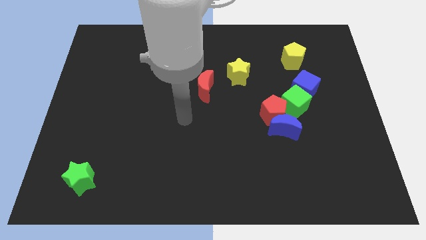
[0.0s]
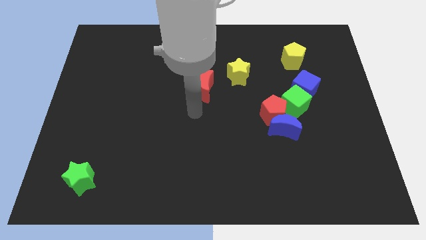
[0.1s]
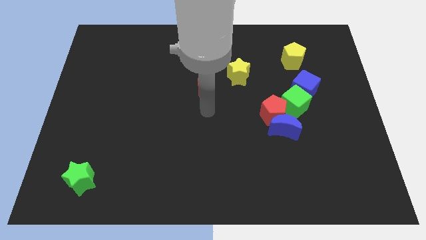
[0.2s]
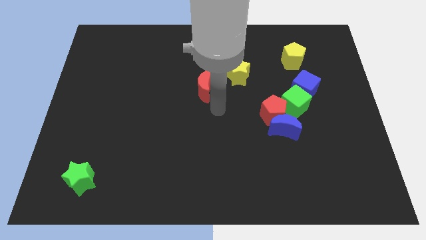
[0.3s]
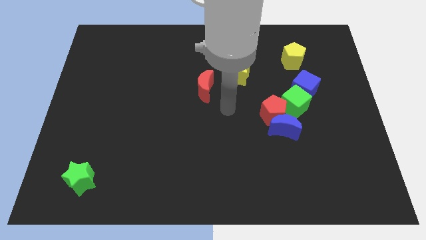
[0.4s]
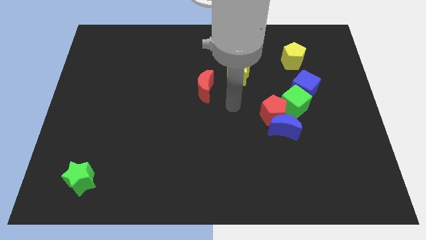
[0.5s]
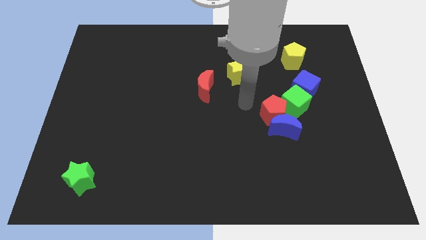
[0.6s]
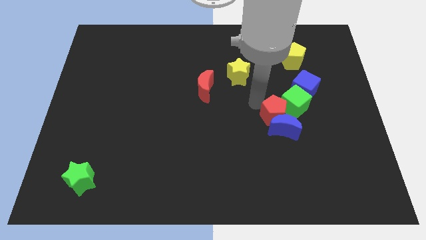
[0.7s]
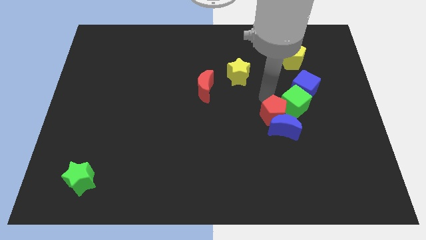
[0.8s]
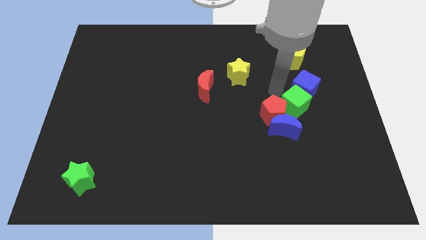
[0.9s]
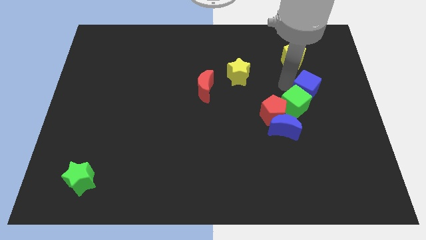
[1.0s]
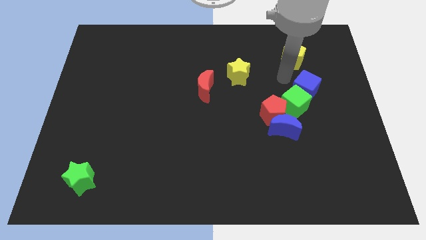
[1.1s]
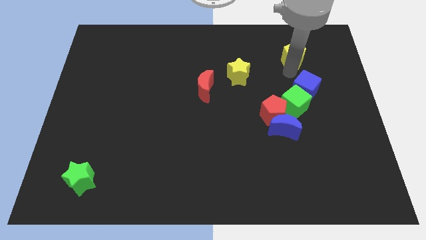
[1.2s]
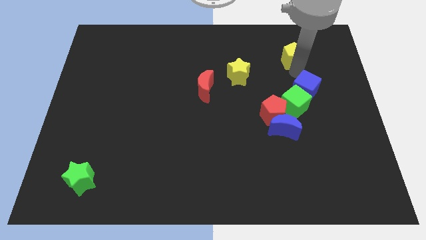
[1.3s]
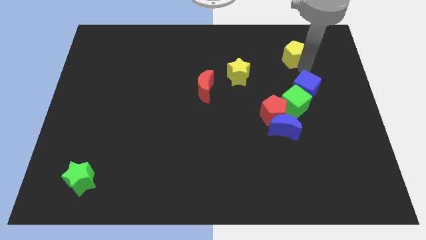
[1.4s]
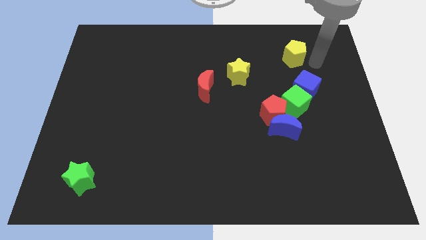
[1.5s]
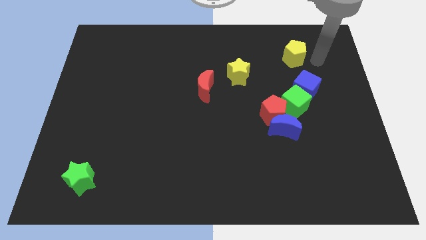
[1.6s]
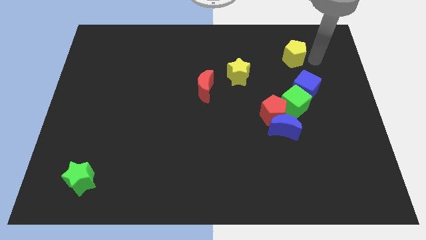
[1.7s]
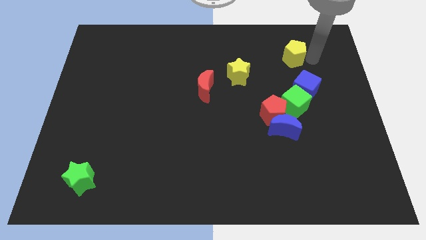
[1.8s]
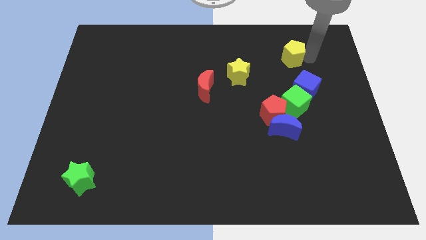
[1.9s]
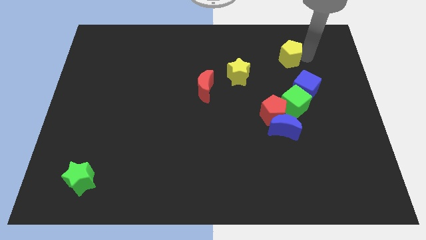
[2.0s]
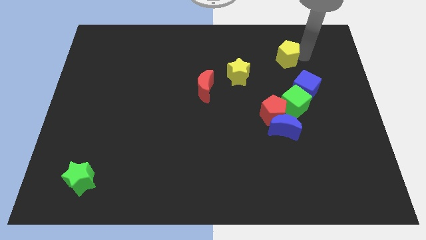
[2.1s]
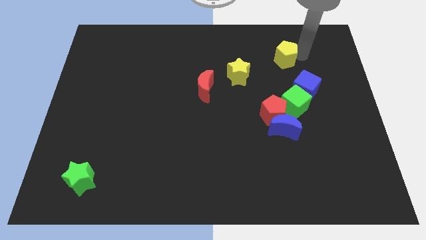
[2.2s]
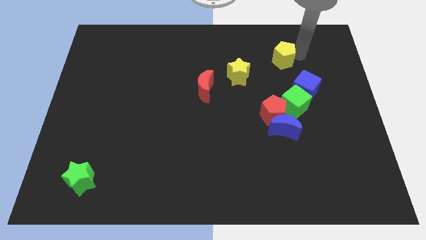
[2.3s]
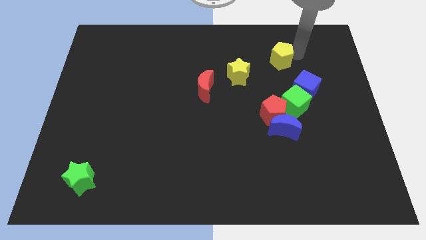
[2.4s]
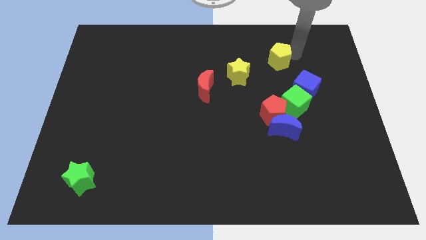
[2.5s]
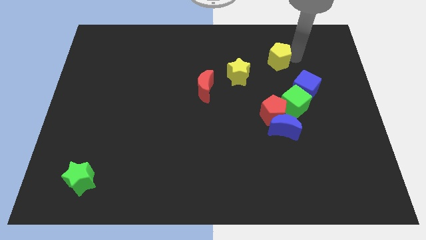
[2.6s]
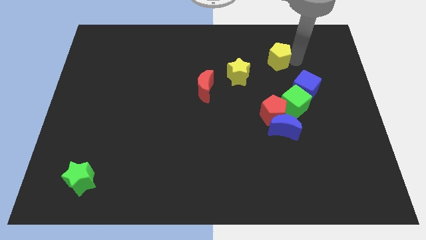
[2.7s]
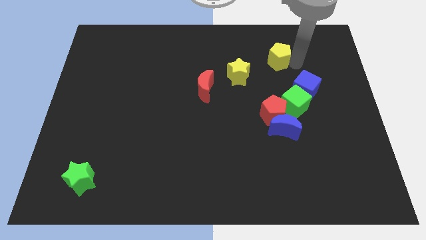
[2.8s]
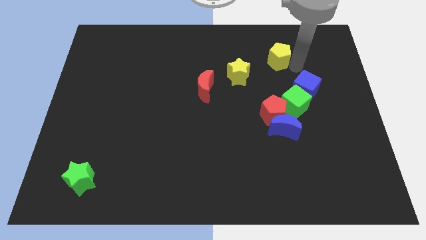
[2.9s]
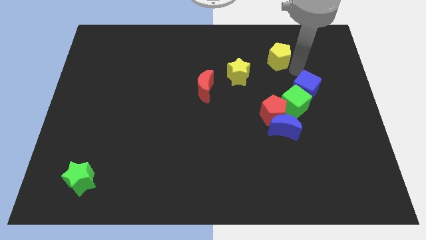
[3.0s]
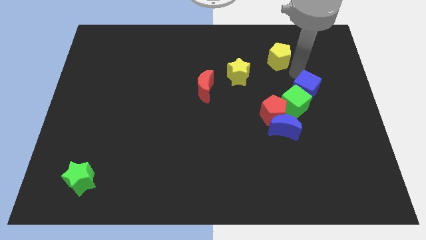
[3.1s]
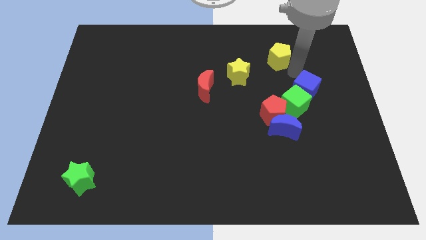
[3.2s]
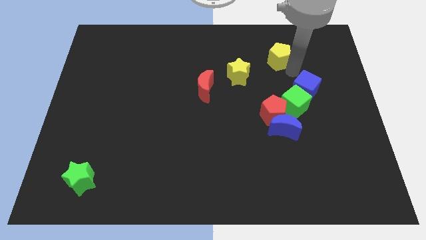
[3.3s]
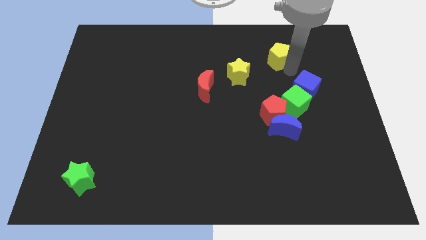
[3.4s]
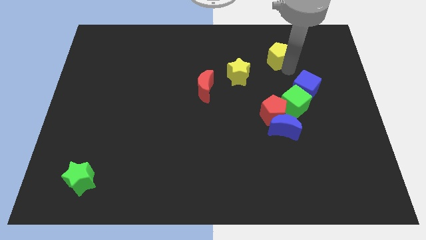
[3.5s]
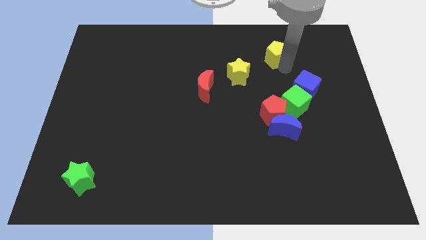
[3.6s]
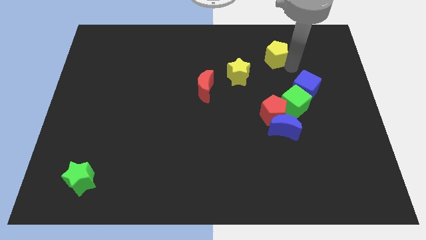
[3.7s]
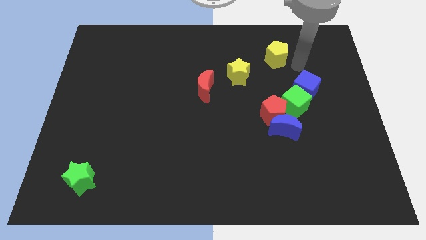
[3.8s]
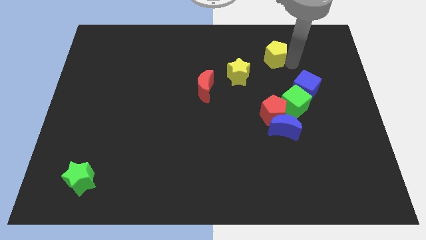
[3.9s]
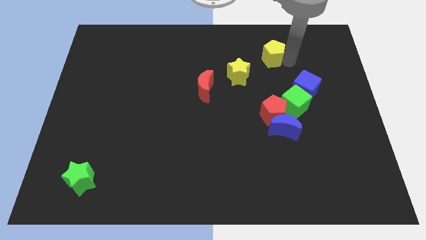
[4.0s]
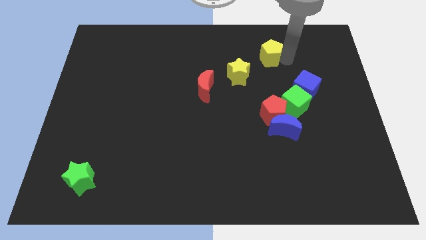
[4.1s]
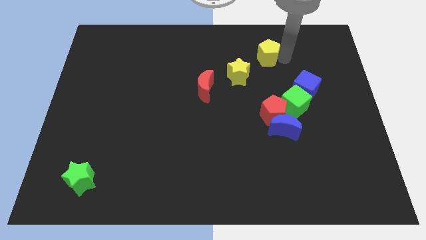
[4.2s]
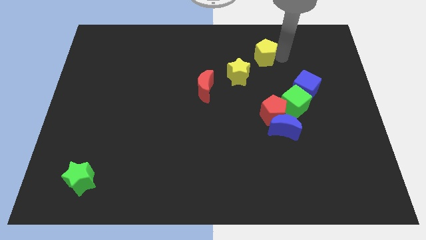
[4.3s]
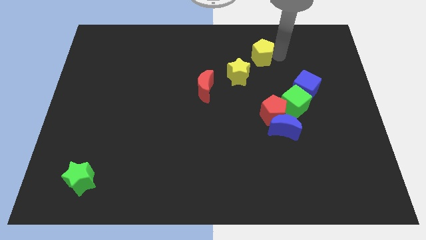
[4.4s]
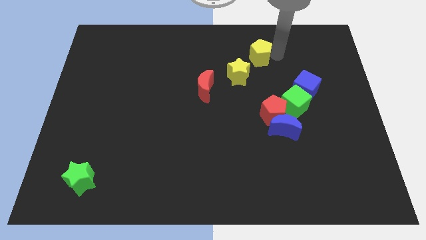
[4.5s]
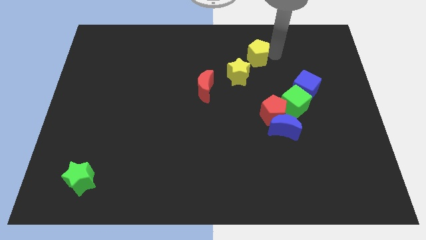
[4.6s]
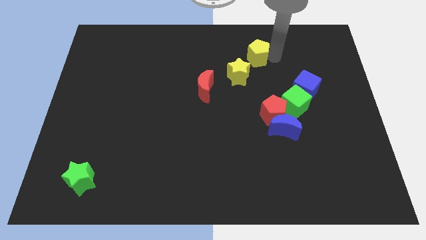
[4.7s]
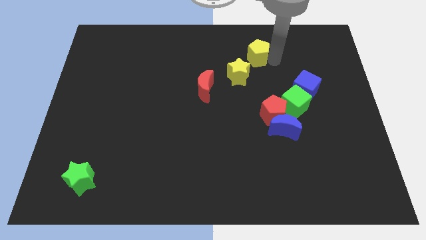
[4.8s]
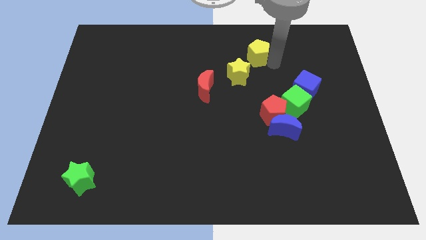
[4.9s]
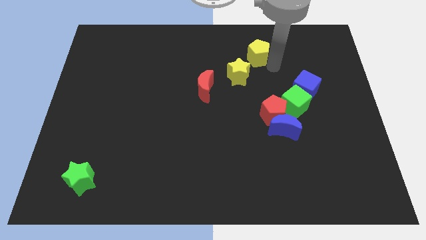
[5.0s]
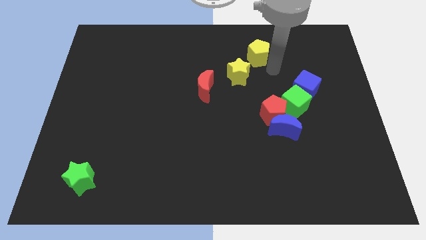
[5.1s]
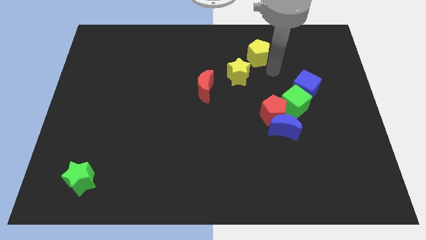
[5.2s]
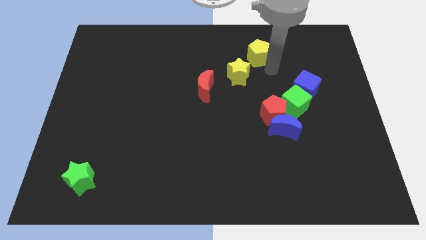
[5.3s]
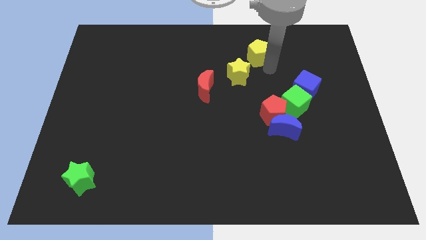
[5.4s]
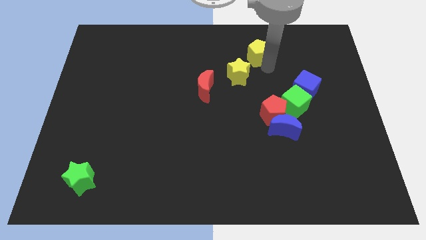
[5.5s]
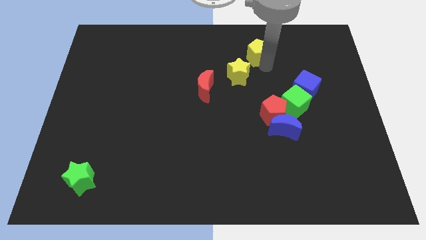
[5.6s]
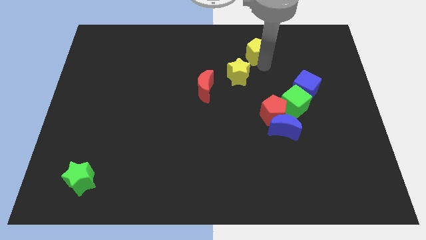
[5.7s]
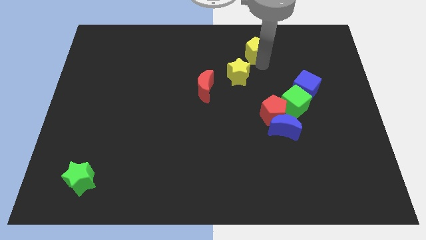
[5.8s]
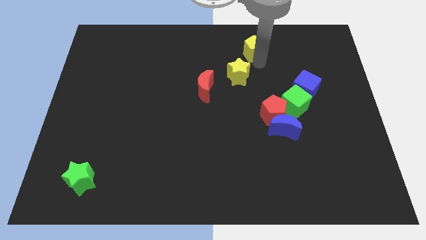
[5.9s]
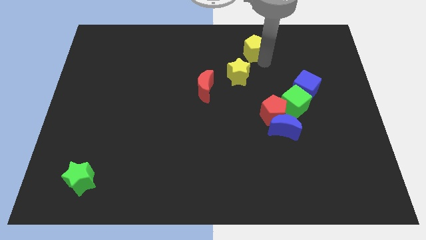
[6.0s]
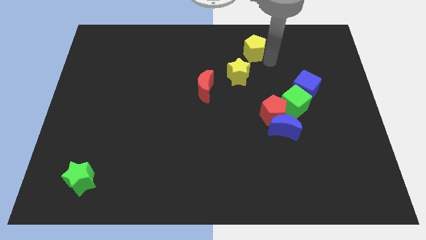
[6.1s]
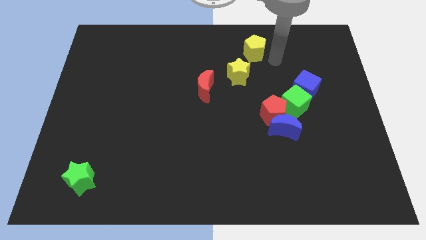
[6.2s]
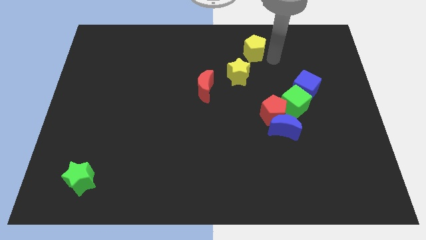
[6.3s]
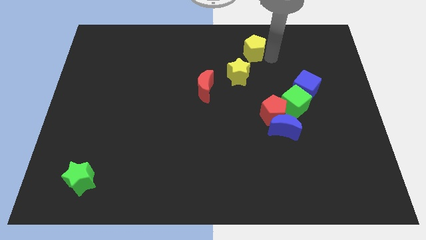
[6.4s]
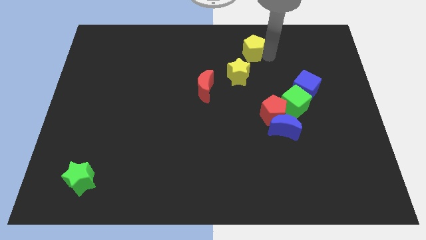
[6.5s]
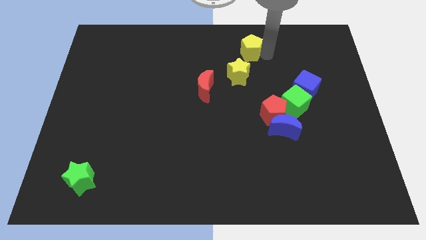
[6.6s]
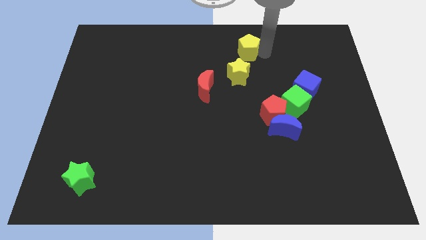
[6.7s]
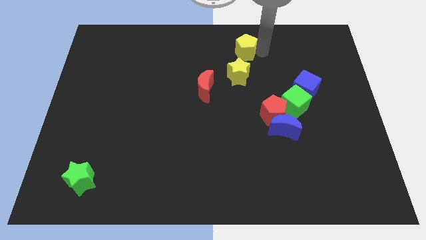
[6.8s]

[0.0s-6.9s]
push the yellow pentagon to the towards your base
